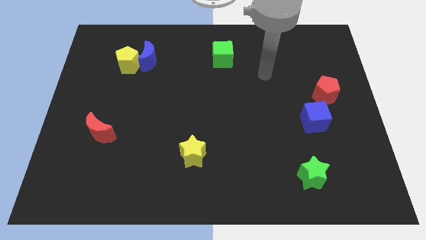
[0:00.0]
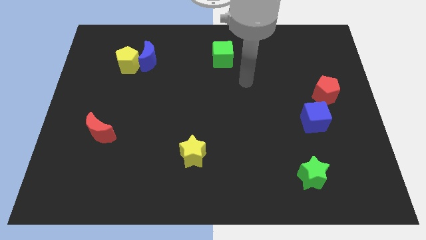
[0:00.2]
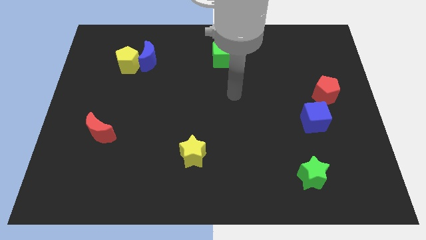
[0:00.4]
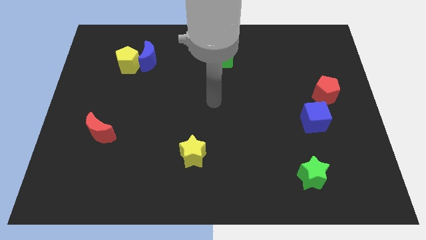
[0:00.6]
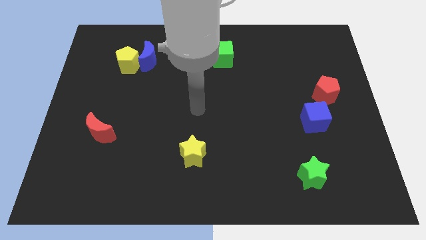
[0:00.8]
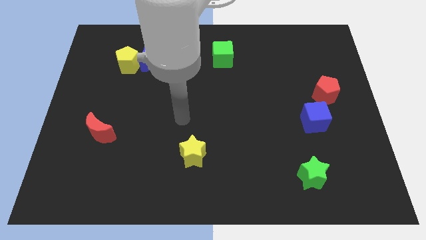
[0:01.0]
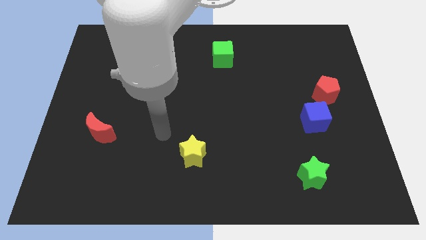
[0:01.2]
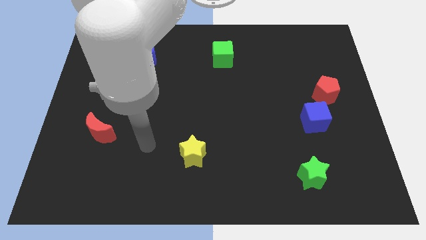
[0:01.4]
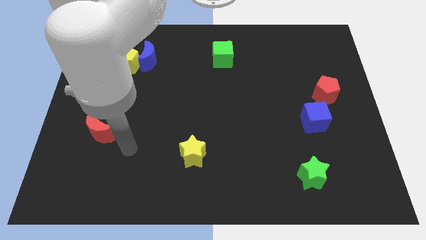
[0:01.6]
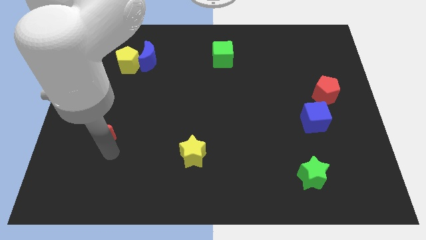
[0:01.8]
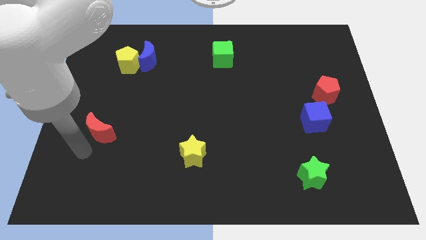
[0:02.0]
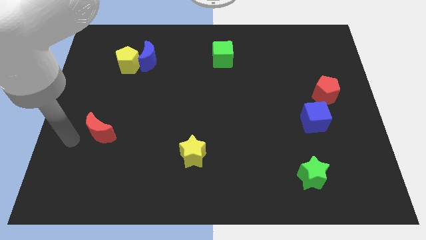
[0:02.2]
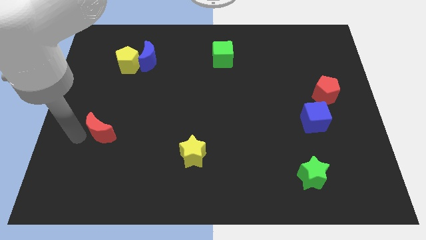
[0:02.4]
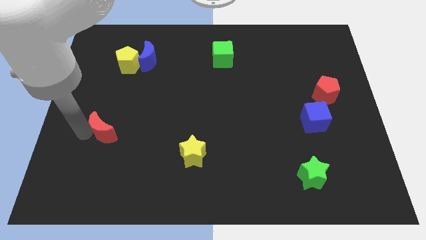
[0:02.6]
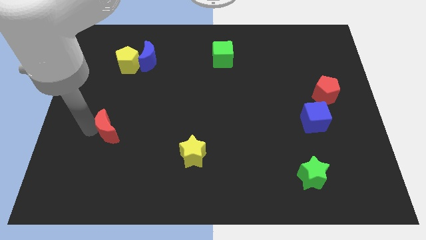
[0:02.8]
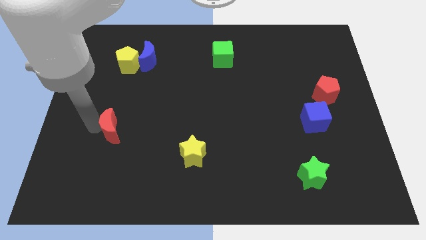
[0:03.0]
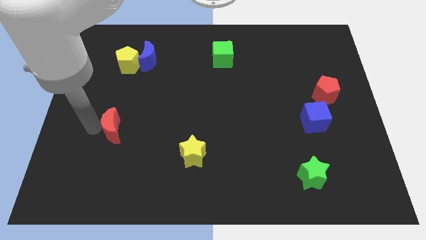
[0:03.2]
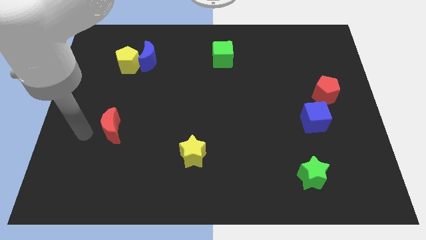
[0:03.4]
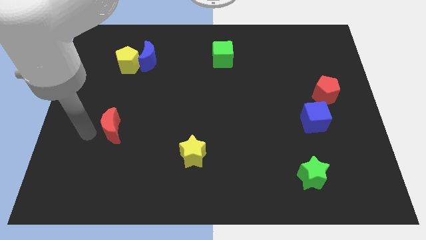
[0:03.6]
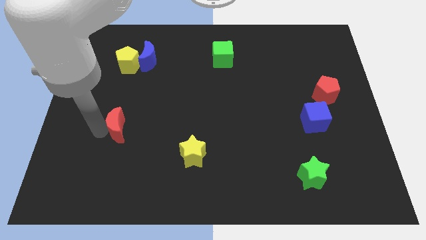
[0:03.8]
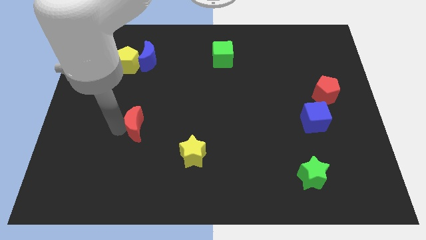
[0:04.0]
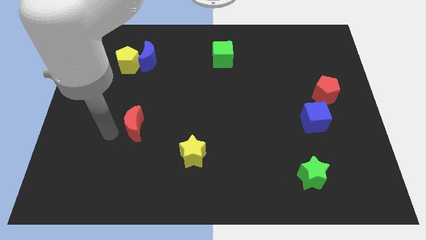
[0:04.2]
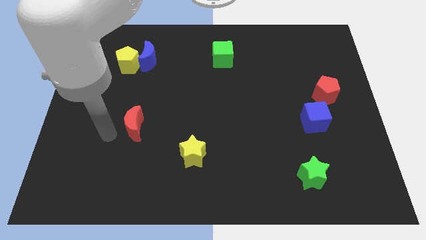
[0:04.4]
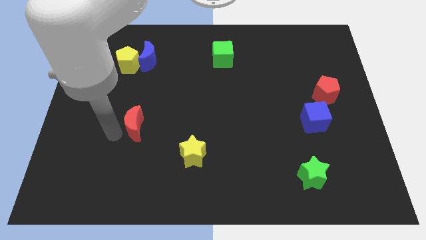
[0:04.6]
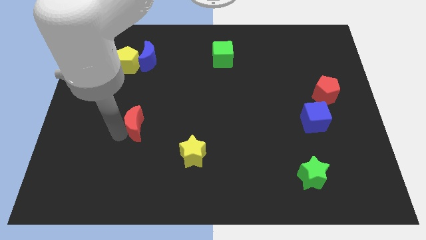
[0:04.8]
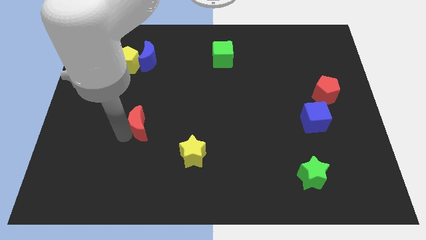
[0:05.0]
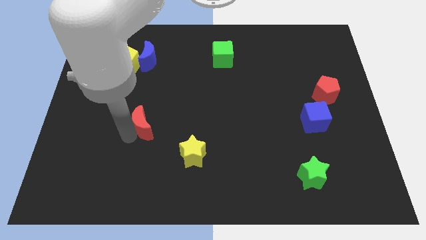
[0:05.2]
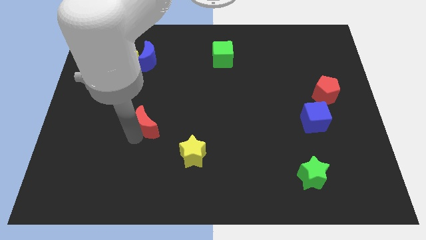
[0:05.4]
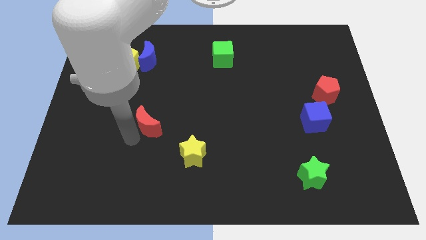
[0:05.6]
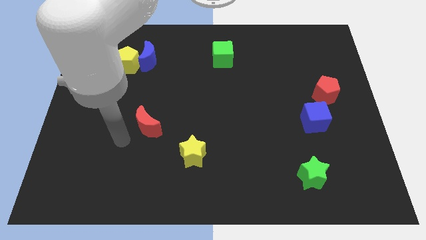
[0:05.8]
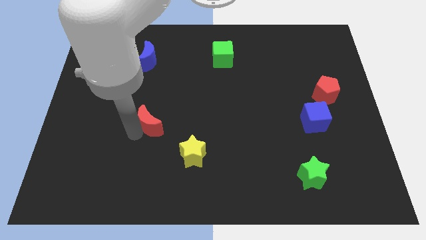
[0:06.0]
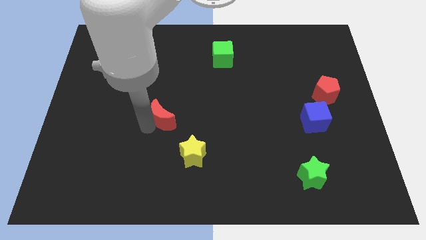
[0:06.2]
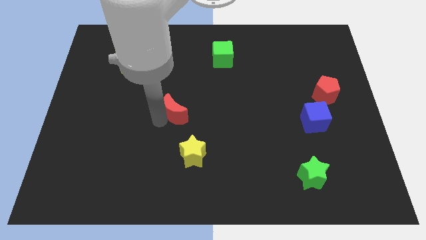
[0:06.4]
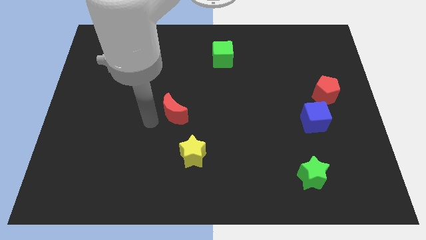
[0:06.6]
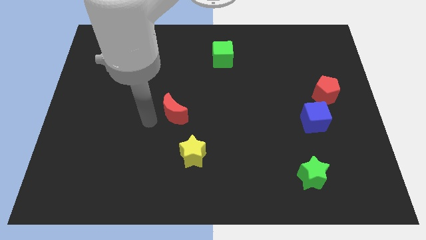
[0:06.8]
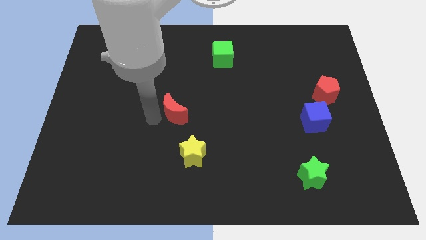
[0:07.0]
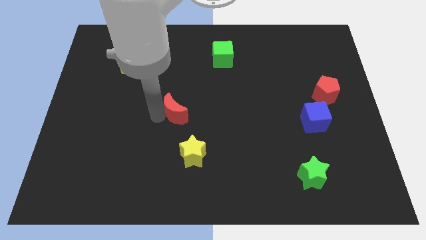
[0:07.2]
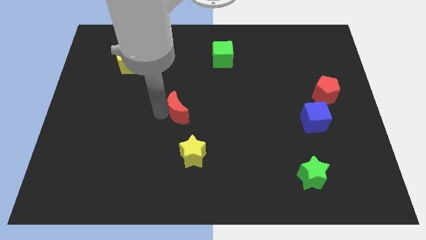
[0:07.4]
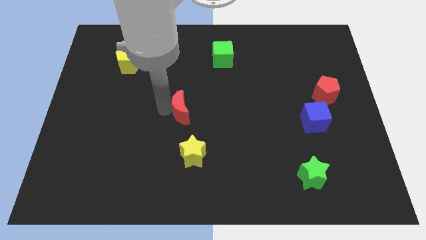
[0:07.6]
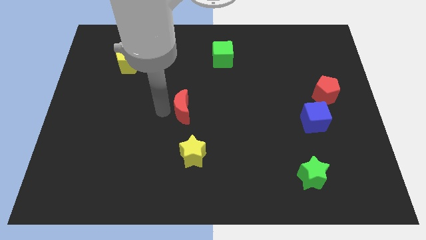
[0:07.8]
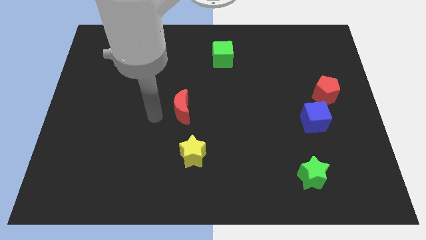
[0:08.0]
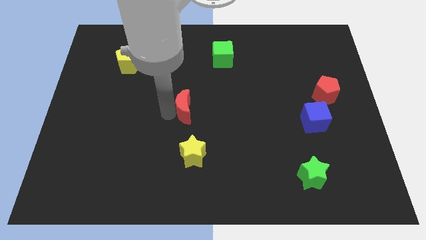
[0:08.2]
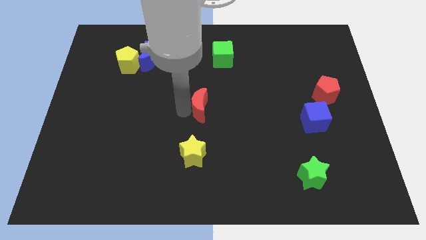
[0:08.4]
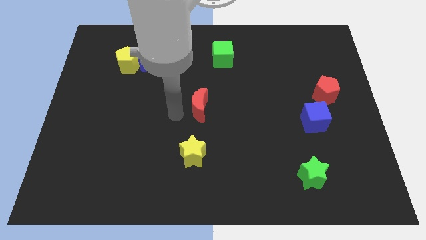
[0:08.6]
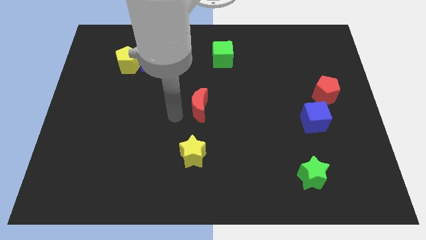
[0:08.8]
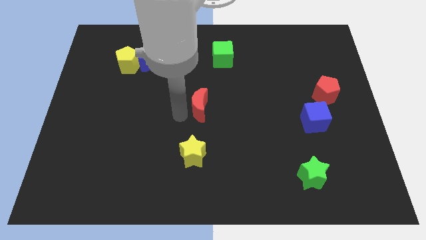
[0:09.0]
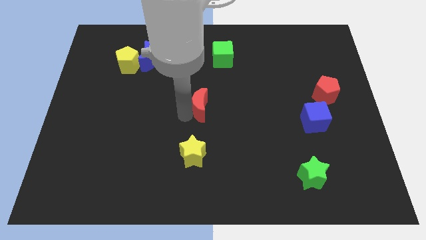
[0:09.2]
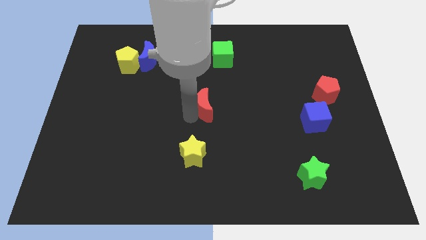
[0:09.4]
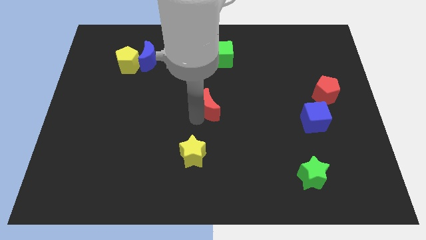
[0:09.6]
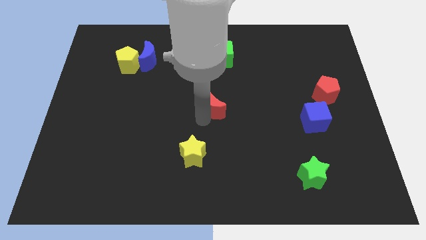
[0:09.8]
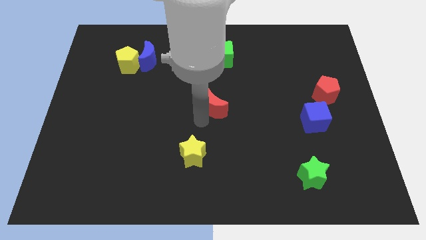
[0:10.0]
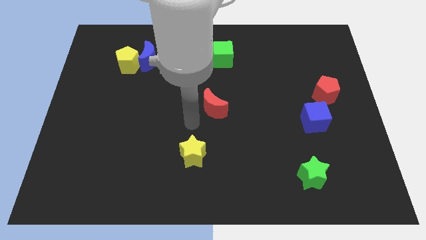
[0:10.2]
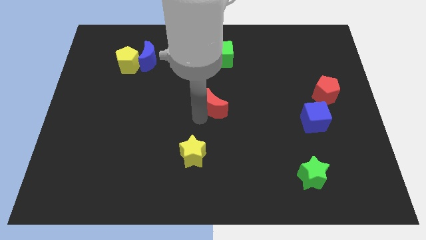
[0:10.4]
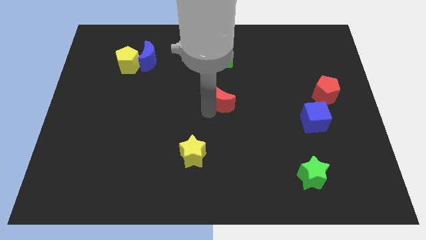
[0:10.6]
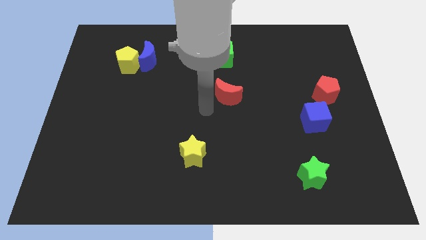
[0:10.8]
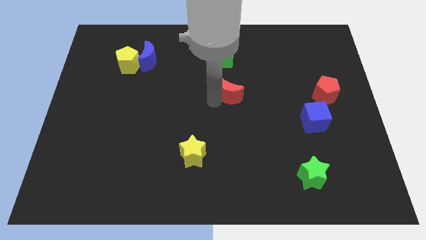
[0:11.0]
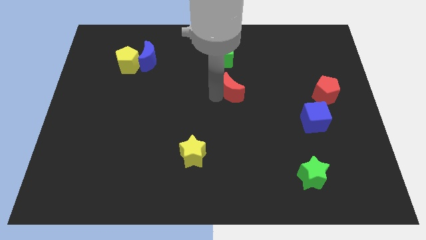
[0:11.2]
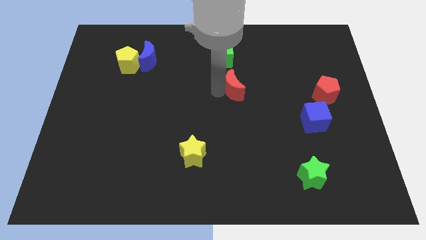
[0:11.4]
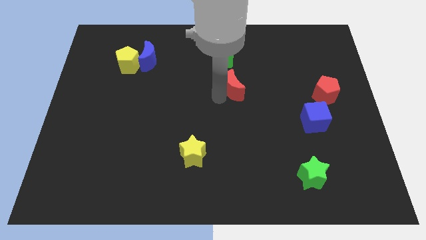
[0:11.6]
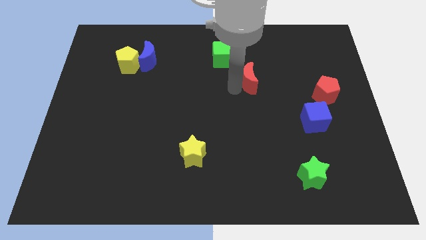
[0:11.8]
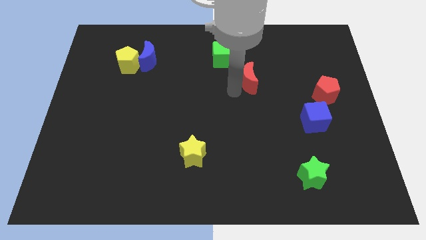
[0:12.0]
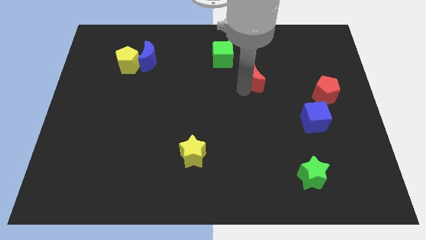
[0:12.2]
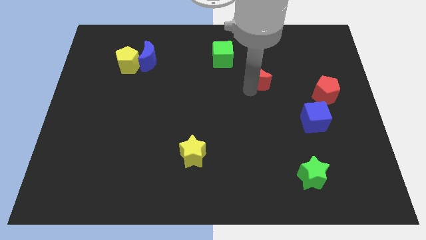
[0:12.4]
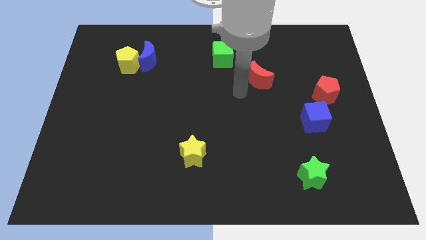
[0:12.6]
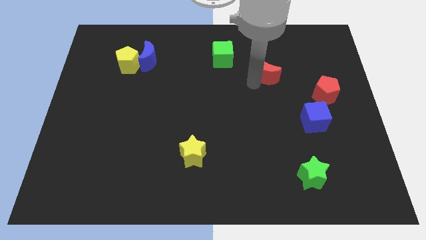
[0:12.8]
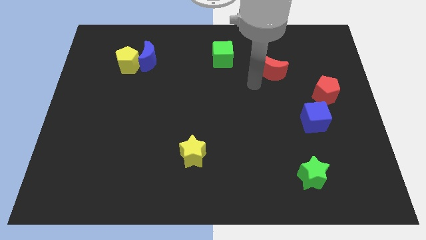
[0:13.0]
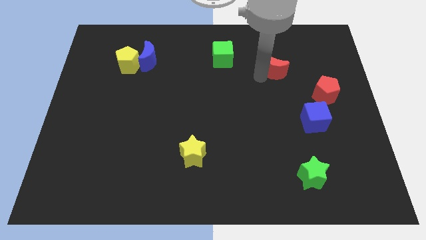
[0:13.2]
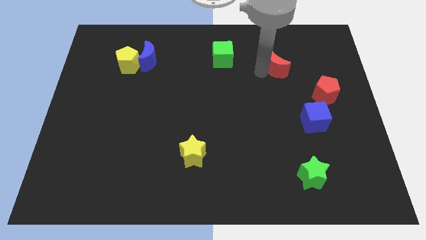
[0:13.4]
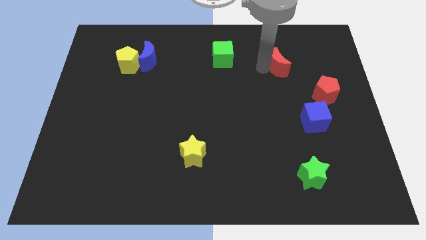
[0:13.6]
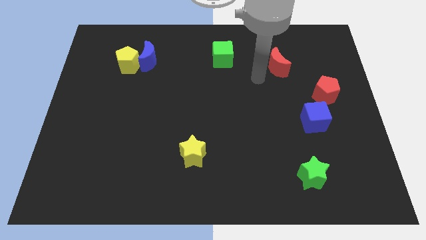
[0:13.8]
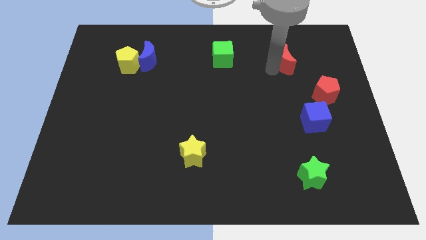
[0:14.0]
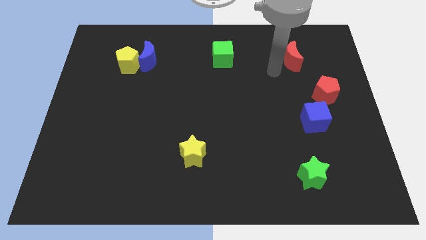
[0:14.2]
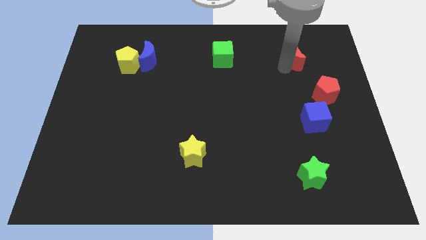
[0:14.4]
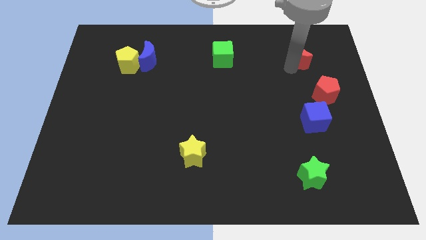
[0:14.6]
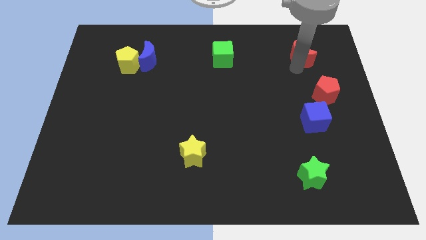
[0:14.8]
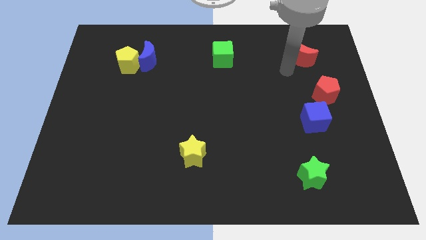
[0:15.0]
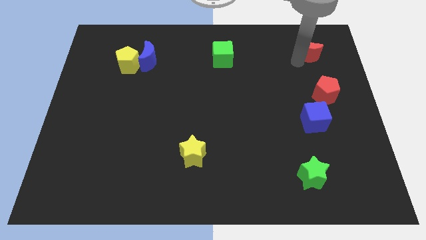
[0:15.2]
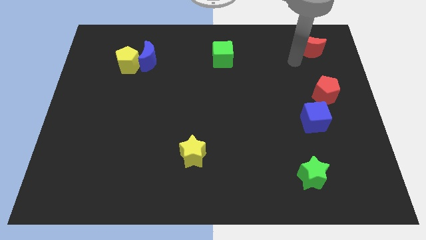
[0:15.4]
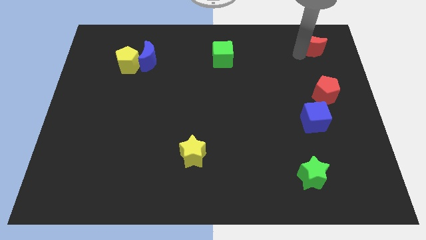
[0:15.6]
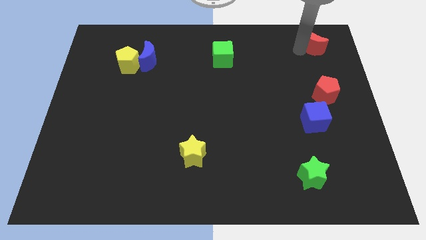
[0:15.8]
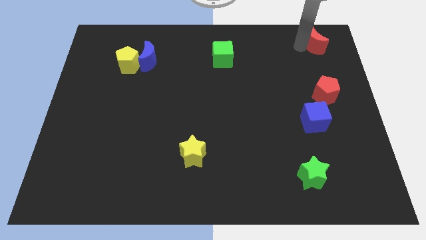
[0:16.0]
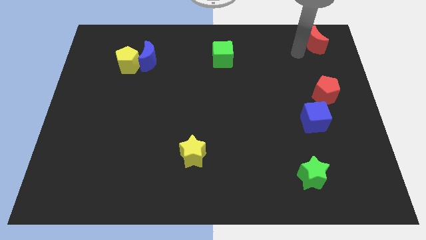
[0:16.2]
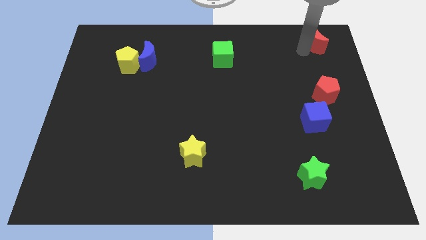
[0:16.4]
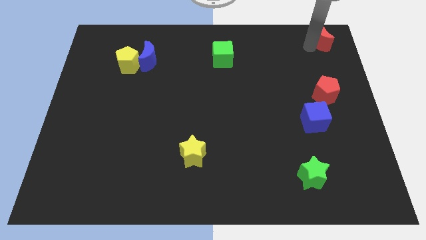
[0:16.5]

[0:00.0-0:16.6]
put the red moon to the top right of the board
